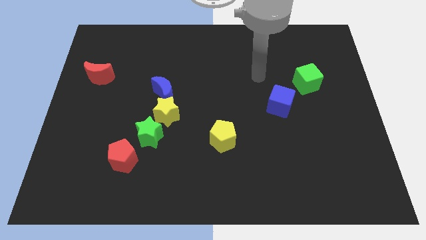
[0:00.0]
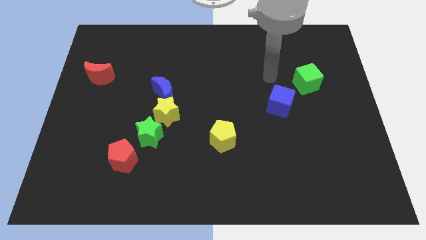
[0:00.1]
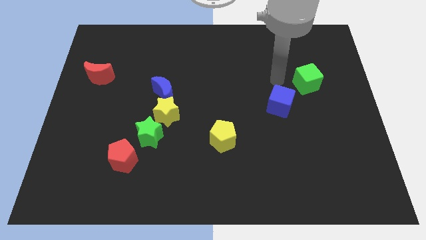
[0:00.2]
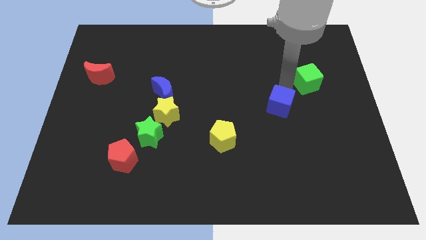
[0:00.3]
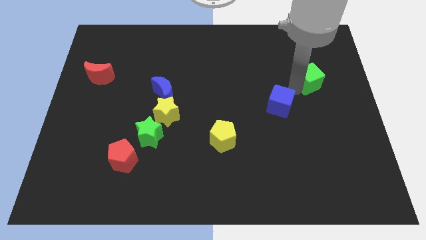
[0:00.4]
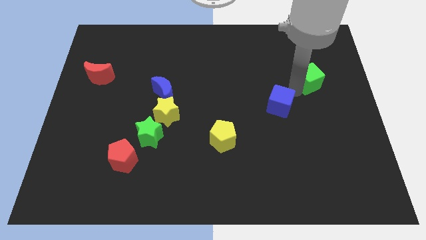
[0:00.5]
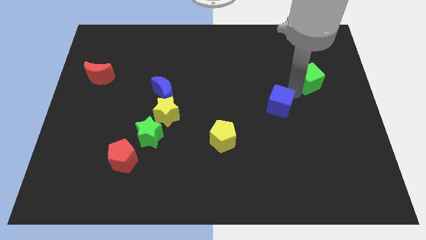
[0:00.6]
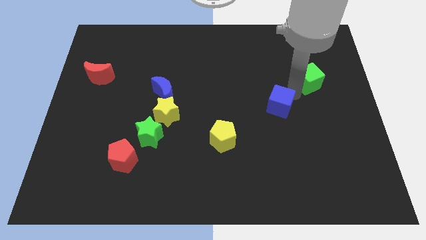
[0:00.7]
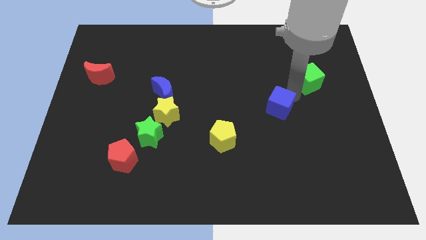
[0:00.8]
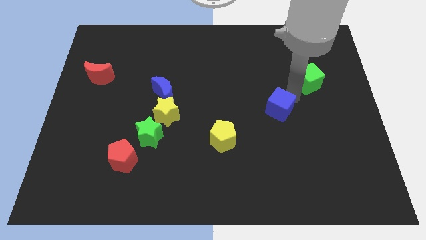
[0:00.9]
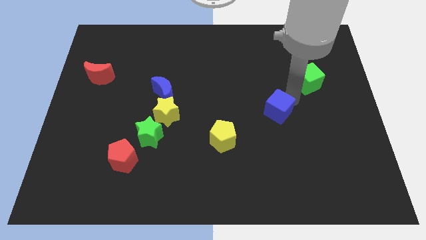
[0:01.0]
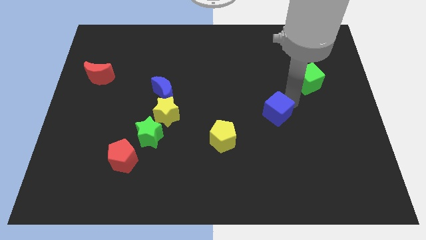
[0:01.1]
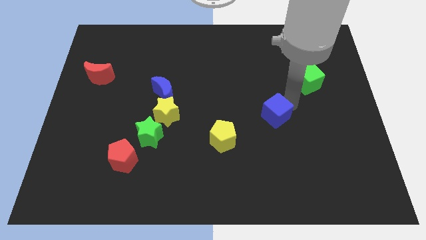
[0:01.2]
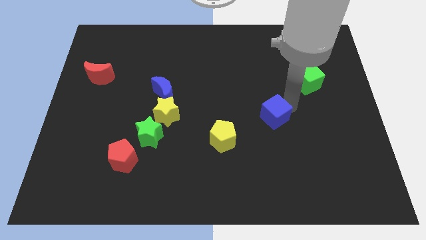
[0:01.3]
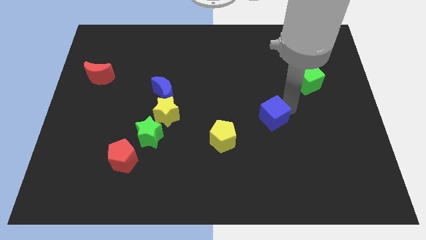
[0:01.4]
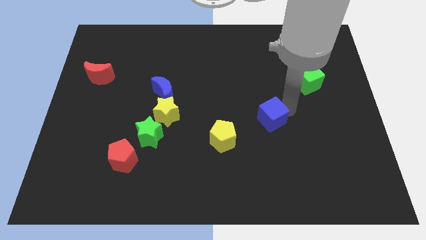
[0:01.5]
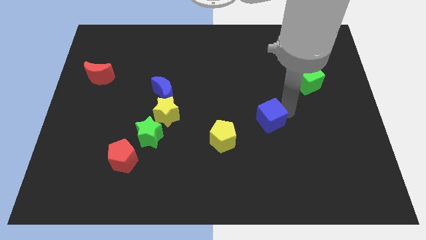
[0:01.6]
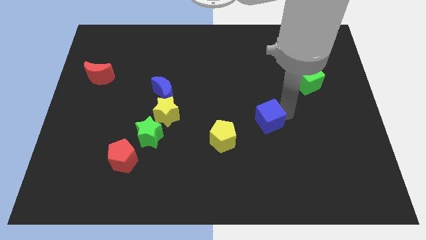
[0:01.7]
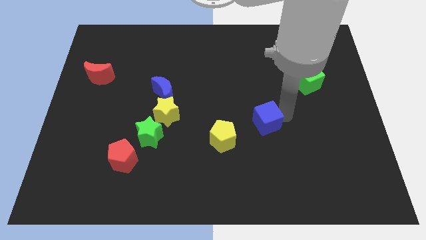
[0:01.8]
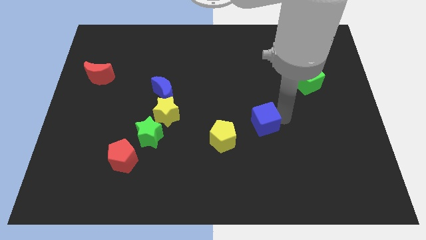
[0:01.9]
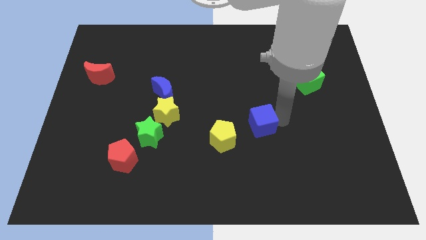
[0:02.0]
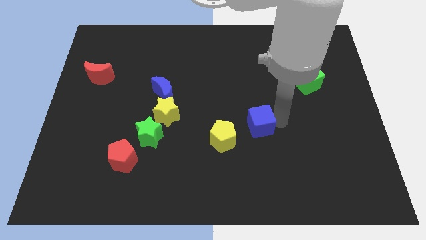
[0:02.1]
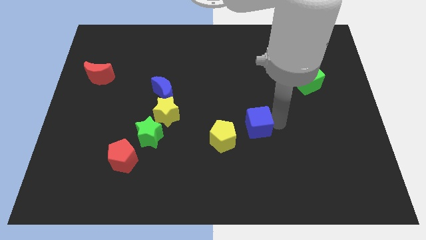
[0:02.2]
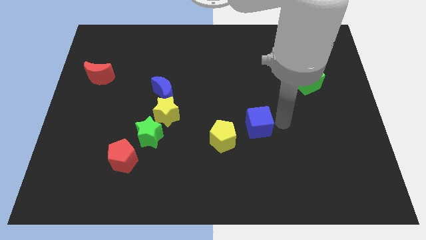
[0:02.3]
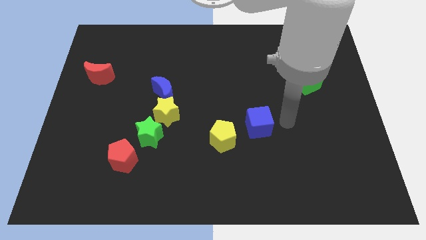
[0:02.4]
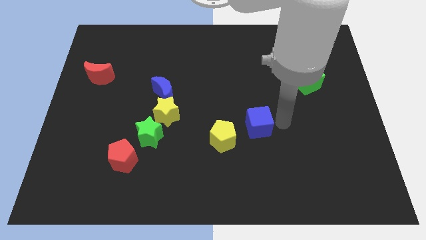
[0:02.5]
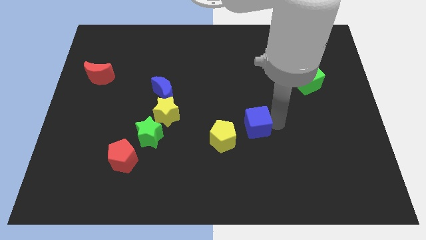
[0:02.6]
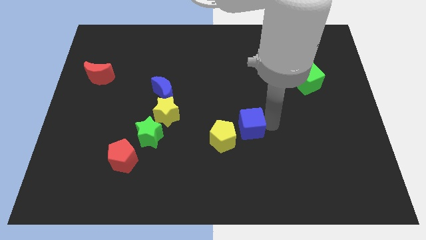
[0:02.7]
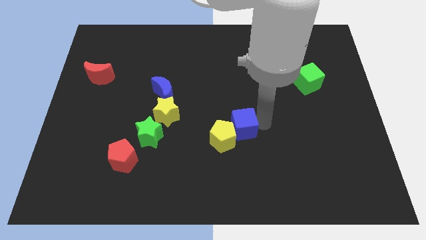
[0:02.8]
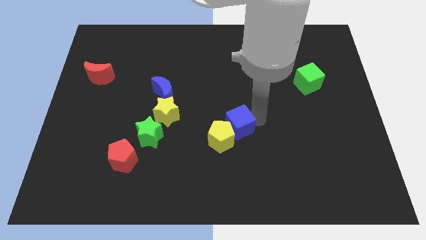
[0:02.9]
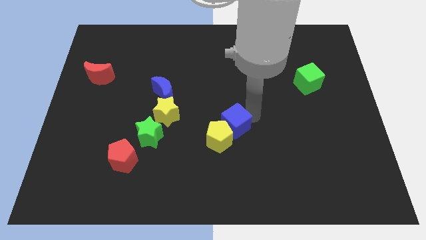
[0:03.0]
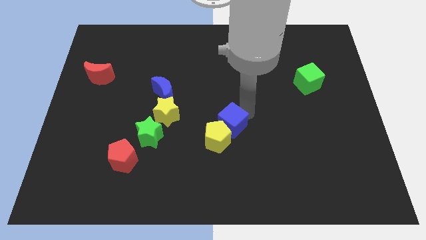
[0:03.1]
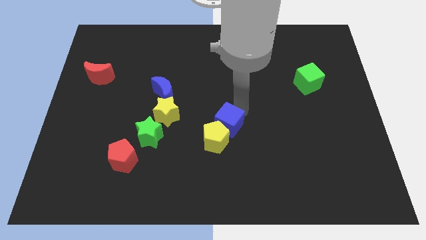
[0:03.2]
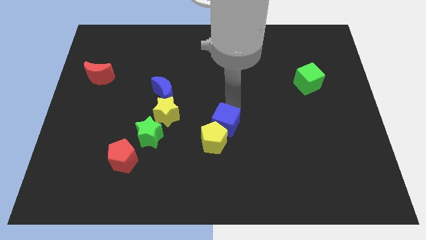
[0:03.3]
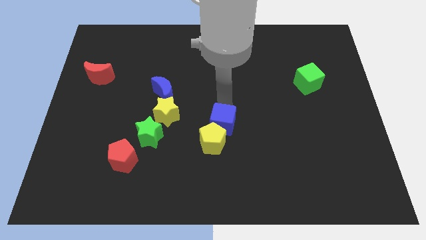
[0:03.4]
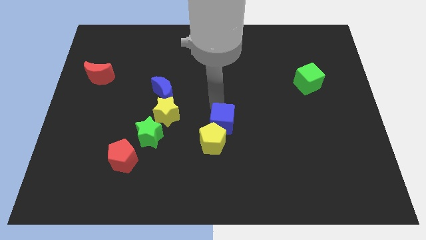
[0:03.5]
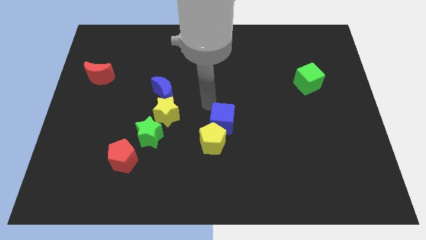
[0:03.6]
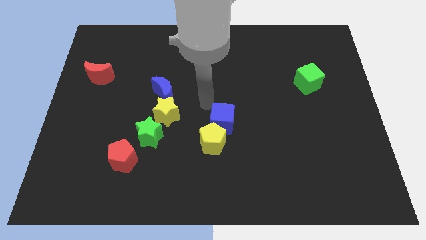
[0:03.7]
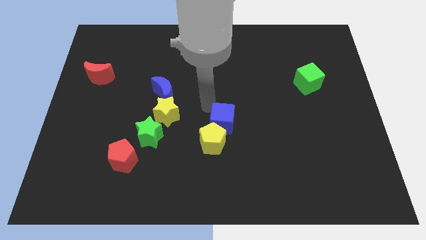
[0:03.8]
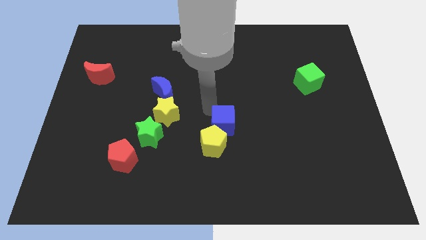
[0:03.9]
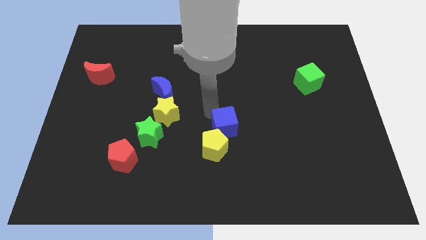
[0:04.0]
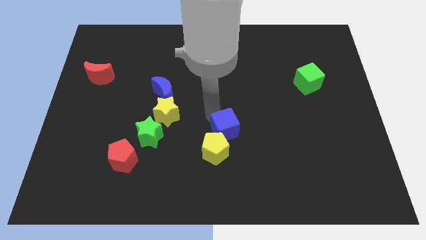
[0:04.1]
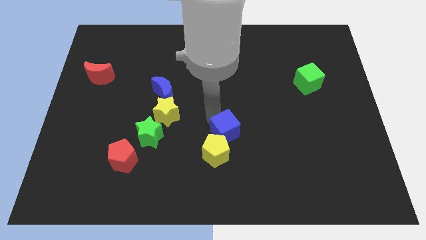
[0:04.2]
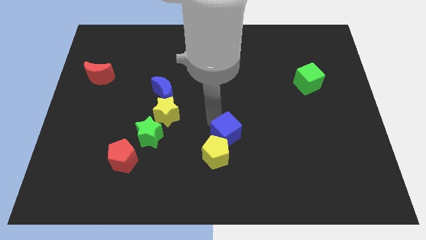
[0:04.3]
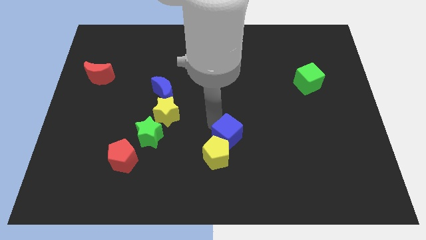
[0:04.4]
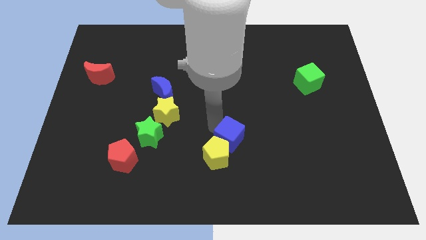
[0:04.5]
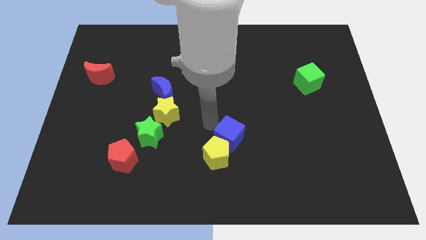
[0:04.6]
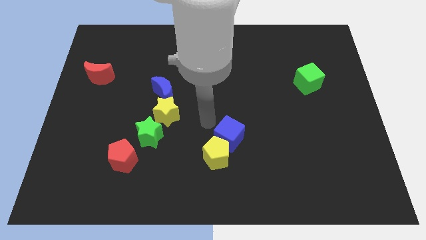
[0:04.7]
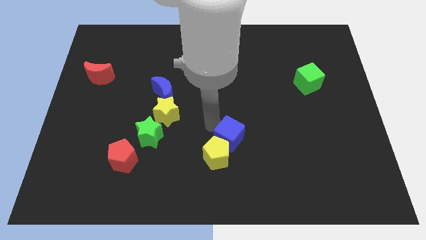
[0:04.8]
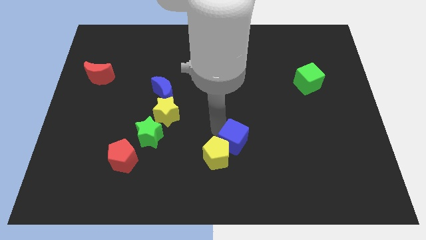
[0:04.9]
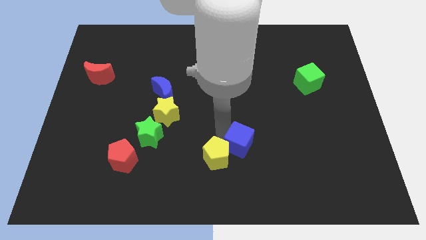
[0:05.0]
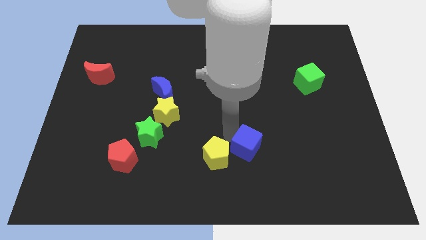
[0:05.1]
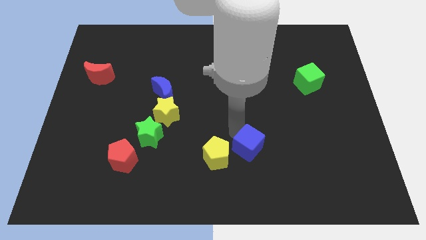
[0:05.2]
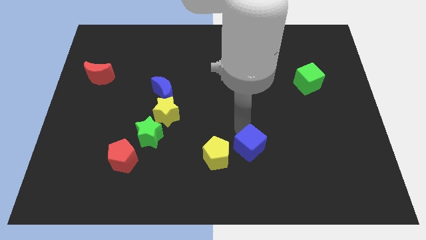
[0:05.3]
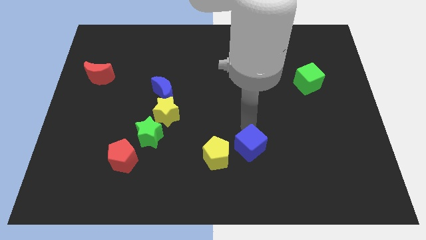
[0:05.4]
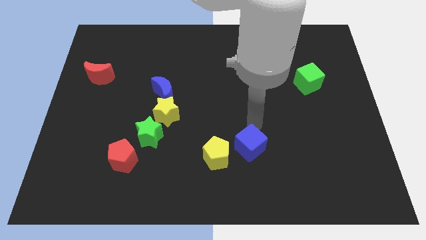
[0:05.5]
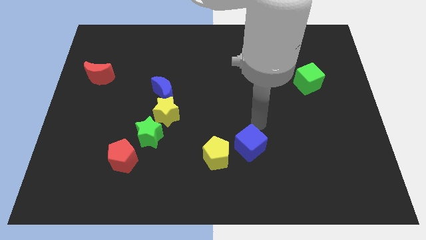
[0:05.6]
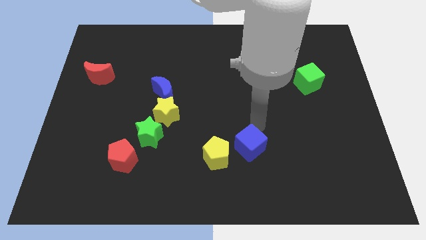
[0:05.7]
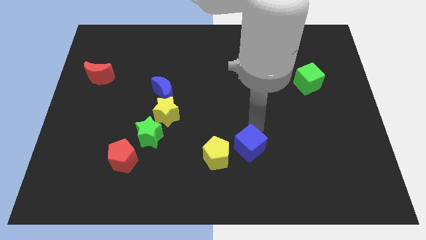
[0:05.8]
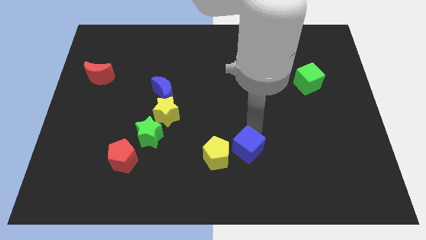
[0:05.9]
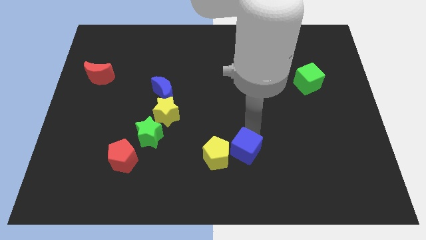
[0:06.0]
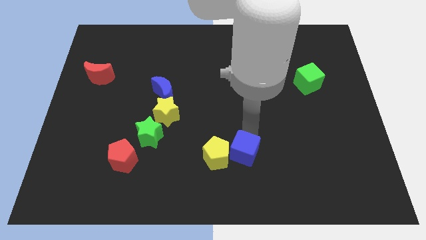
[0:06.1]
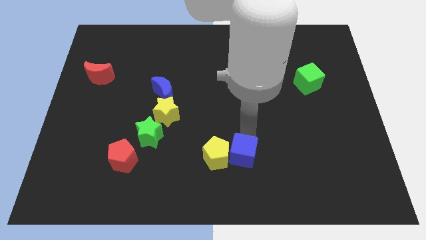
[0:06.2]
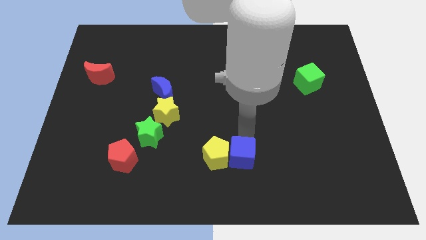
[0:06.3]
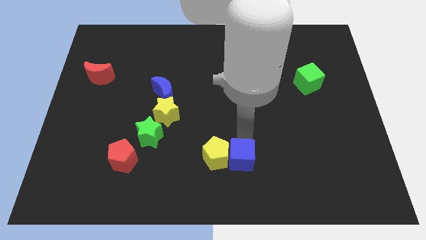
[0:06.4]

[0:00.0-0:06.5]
put the blue cube to the bottom

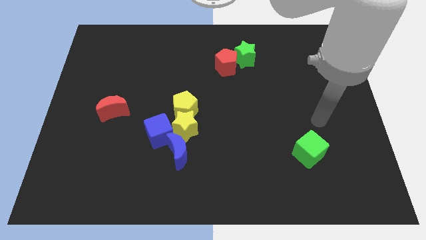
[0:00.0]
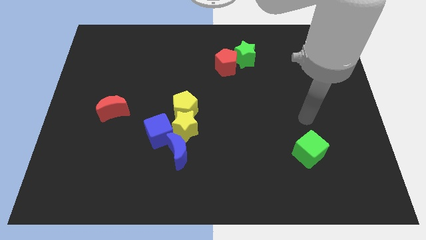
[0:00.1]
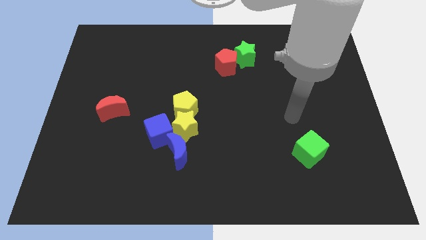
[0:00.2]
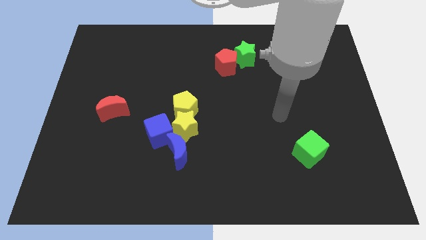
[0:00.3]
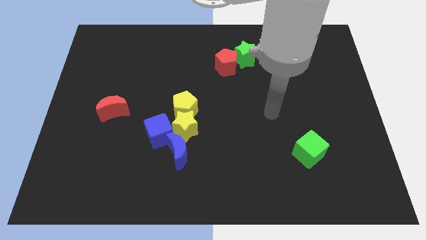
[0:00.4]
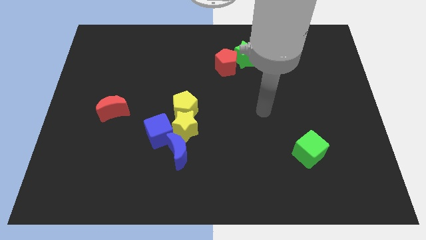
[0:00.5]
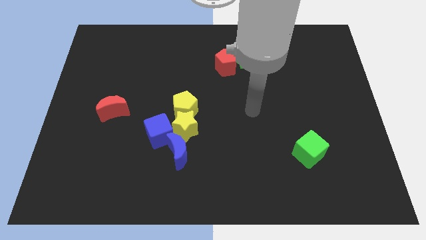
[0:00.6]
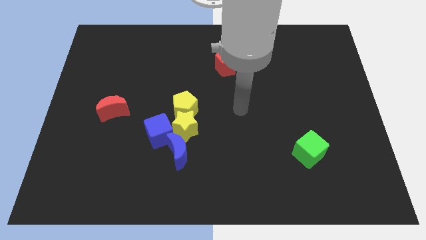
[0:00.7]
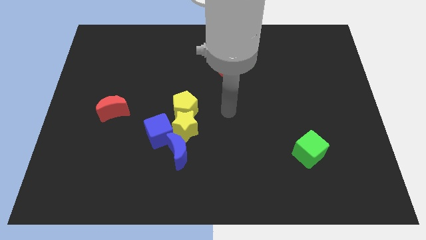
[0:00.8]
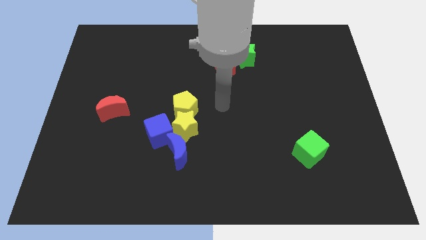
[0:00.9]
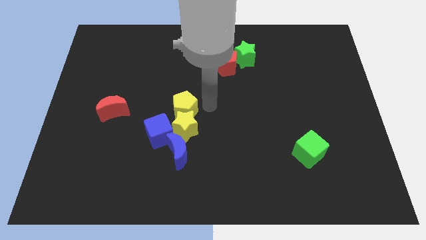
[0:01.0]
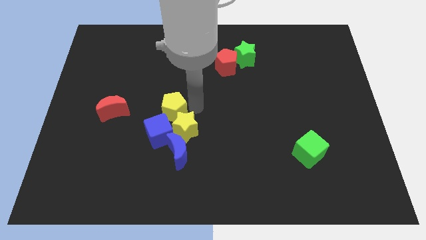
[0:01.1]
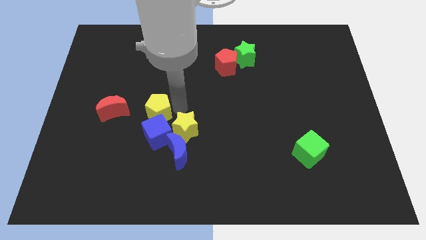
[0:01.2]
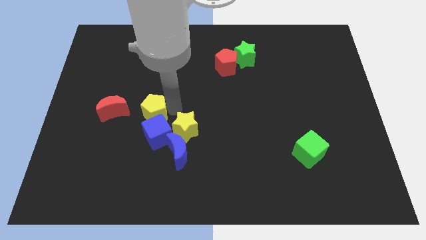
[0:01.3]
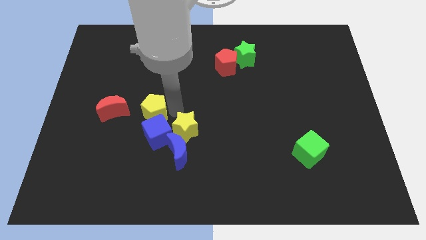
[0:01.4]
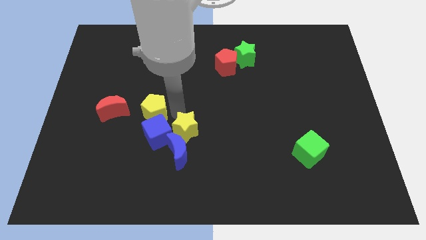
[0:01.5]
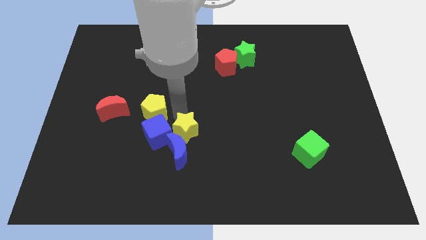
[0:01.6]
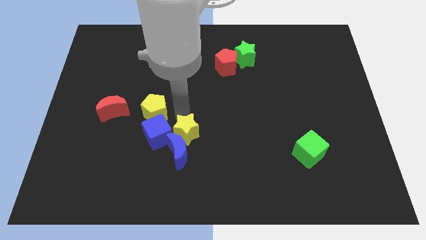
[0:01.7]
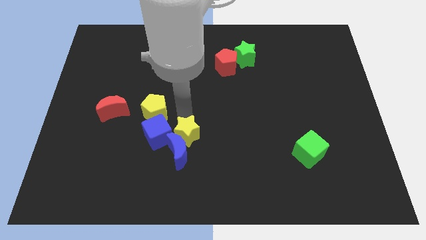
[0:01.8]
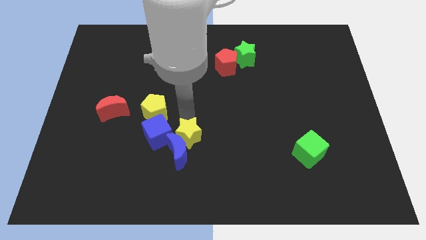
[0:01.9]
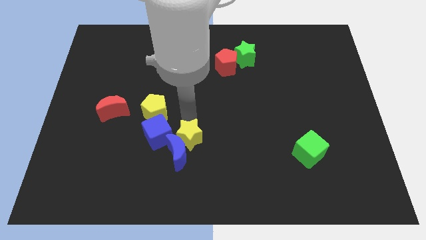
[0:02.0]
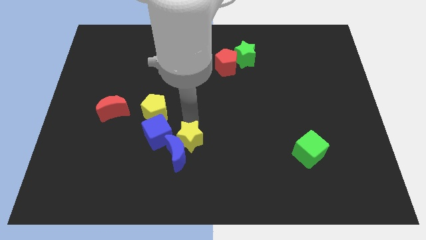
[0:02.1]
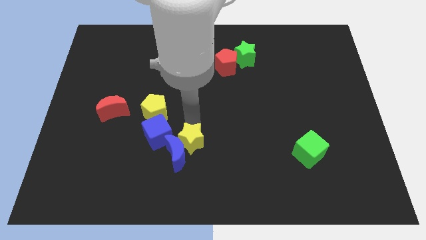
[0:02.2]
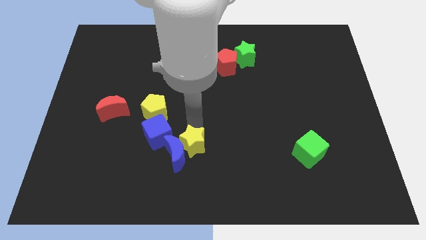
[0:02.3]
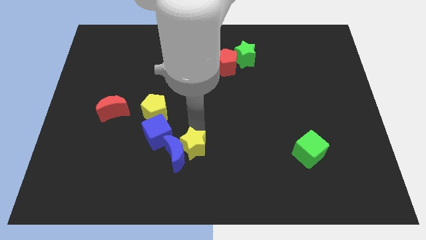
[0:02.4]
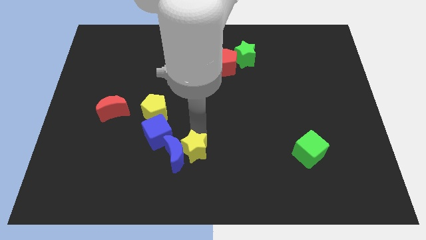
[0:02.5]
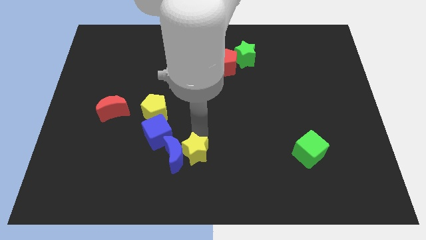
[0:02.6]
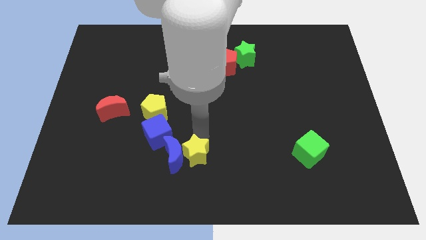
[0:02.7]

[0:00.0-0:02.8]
push the yellow star to the bottom side
